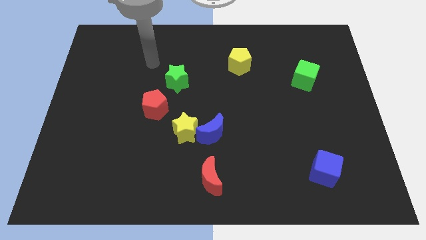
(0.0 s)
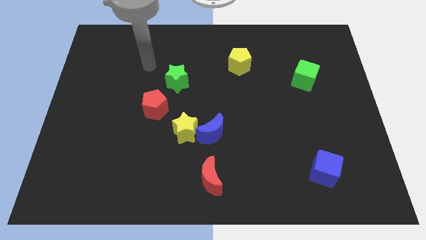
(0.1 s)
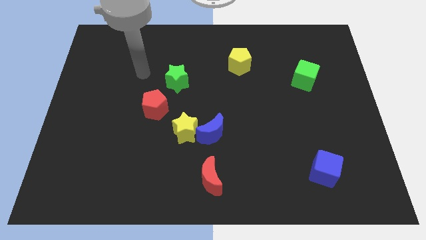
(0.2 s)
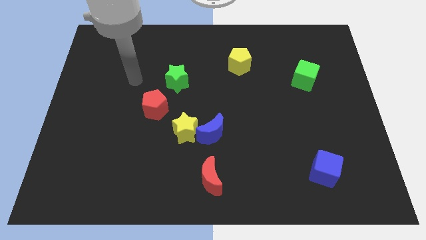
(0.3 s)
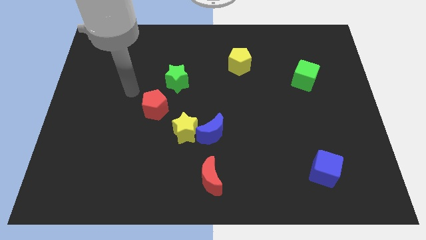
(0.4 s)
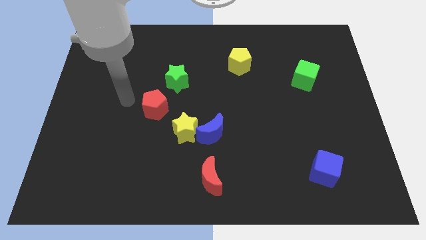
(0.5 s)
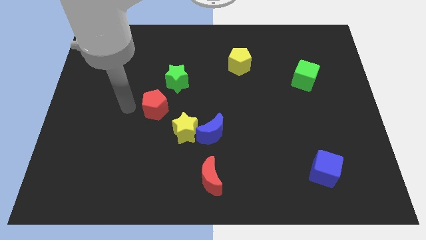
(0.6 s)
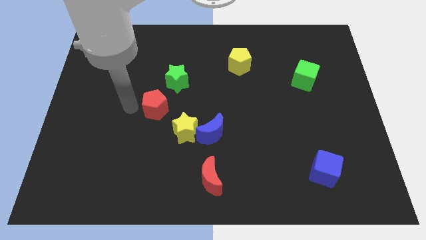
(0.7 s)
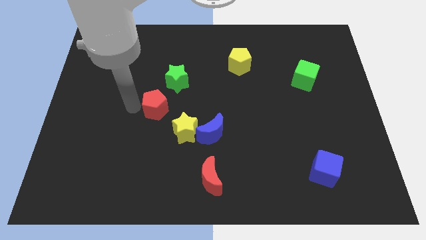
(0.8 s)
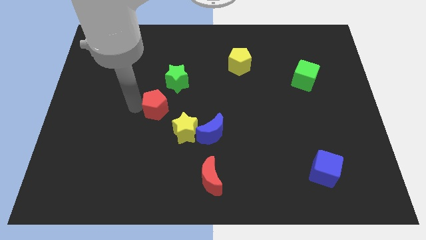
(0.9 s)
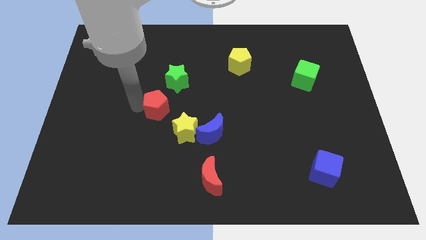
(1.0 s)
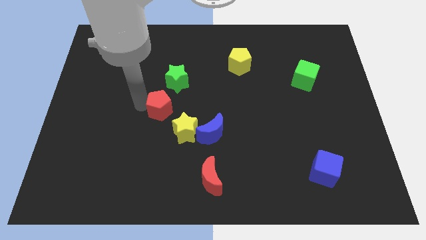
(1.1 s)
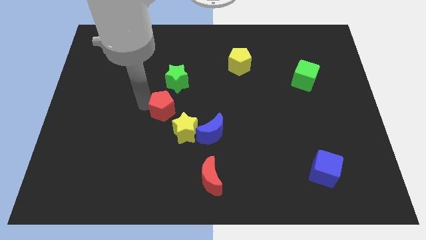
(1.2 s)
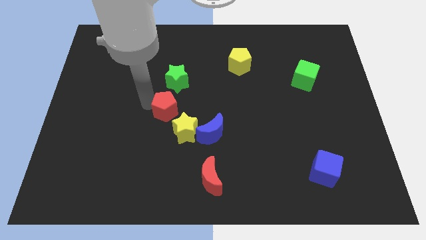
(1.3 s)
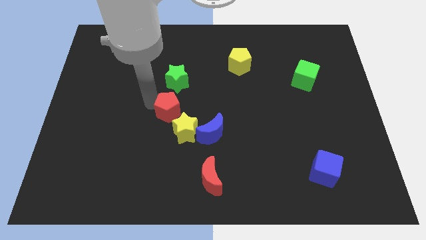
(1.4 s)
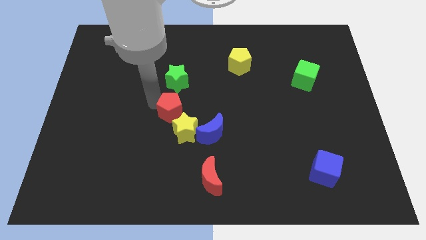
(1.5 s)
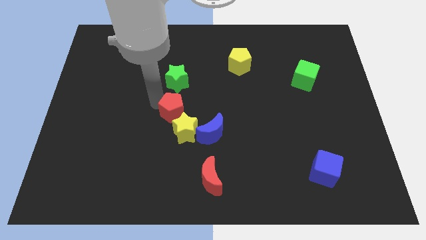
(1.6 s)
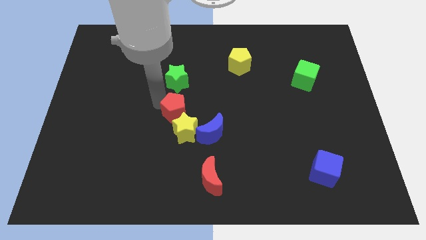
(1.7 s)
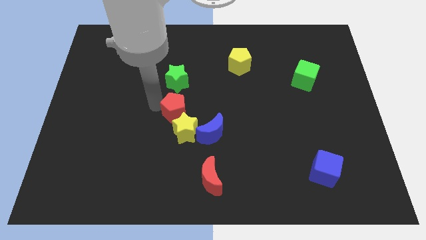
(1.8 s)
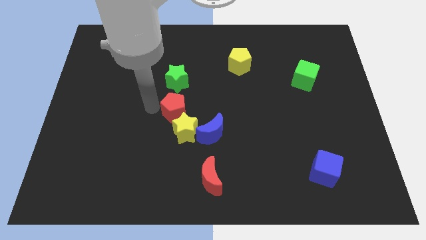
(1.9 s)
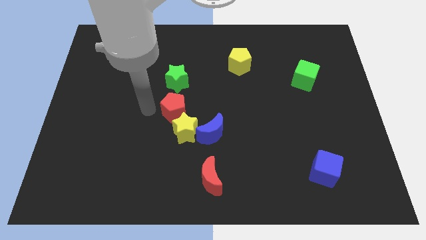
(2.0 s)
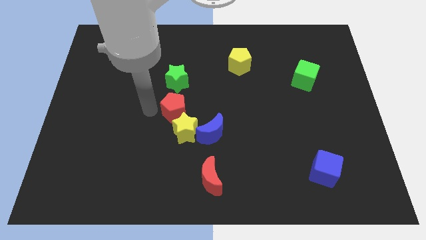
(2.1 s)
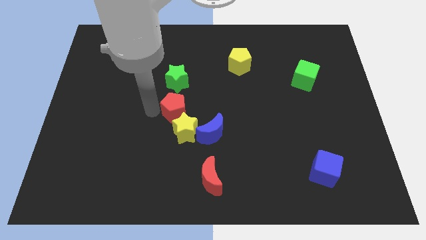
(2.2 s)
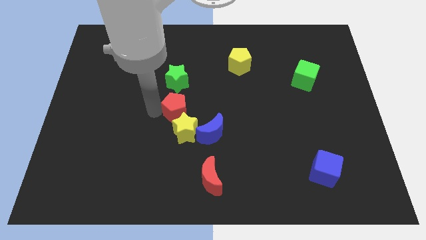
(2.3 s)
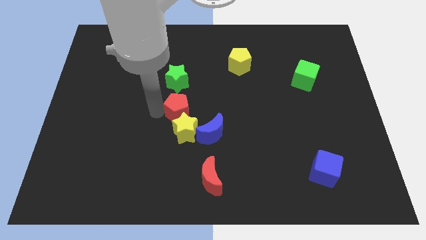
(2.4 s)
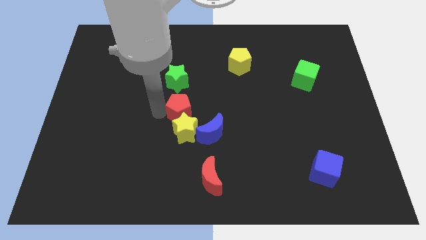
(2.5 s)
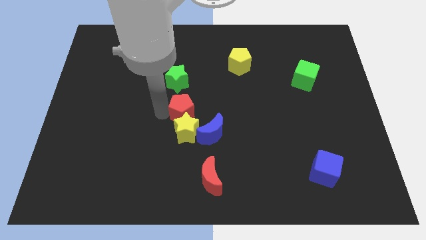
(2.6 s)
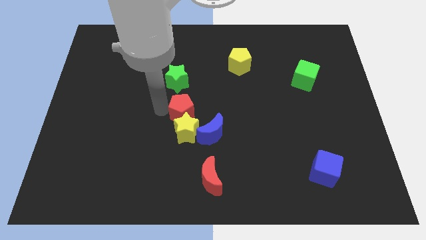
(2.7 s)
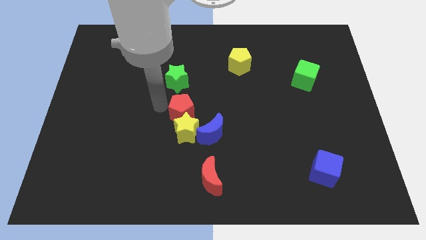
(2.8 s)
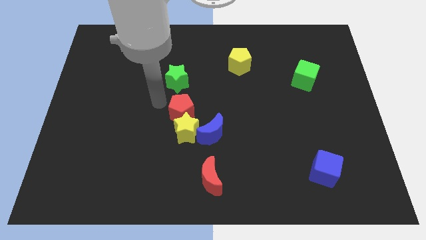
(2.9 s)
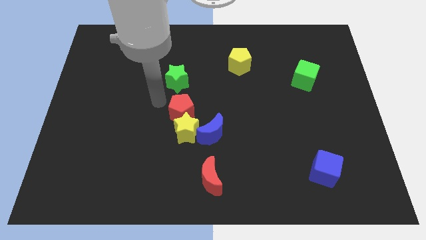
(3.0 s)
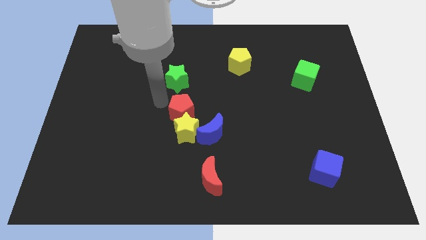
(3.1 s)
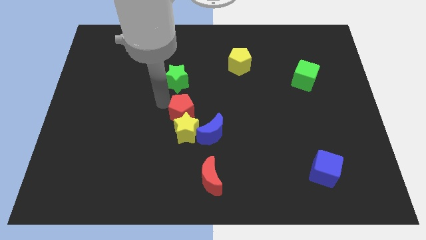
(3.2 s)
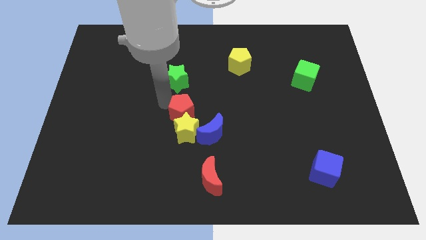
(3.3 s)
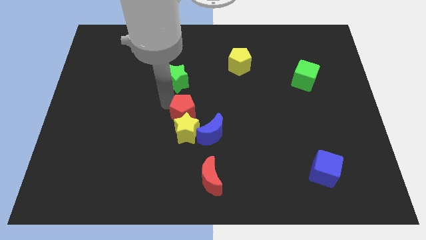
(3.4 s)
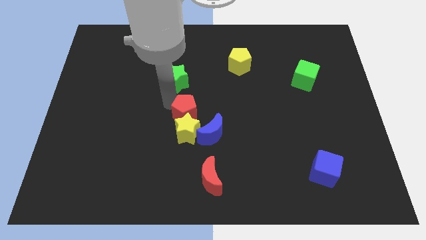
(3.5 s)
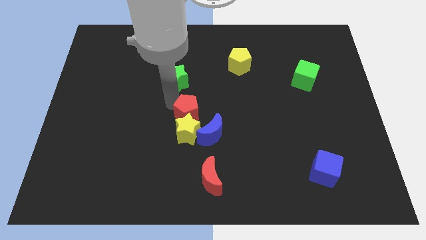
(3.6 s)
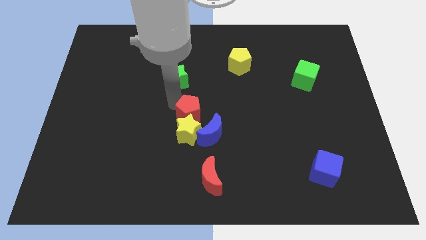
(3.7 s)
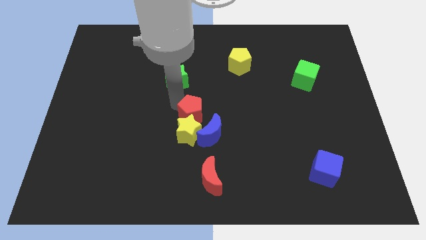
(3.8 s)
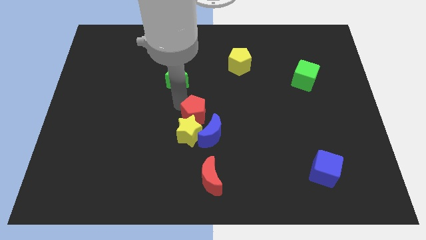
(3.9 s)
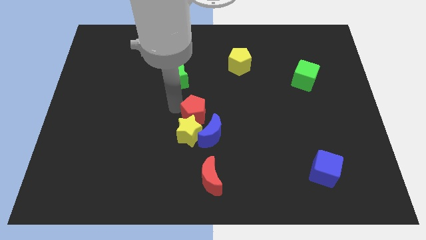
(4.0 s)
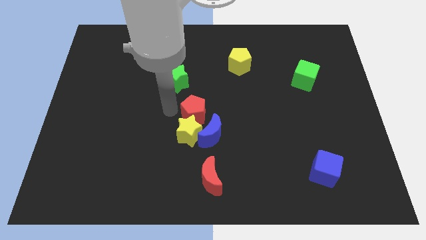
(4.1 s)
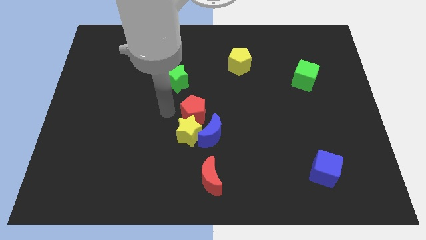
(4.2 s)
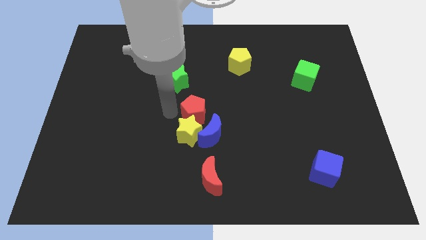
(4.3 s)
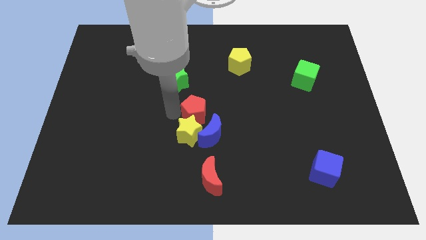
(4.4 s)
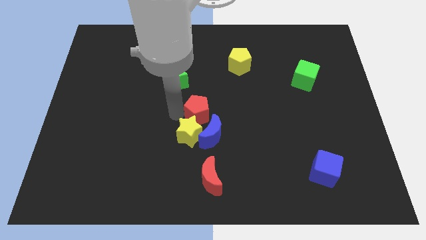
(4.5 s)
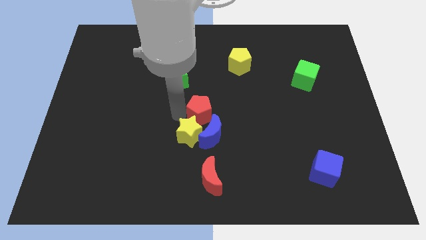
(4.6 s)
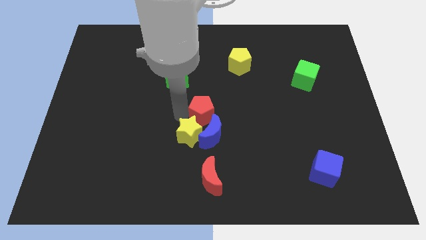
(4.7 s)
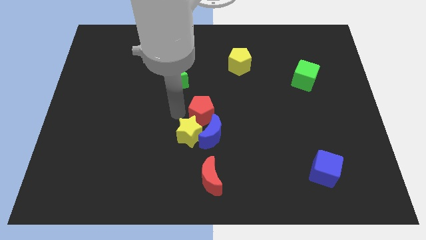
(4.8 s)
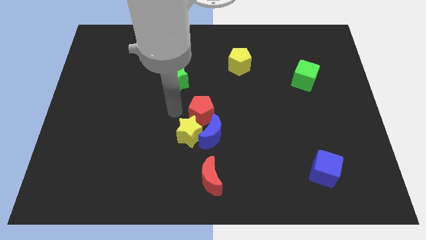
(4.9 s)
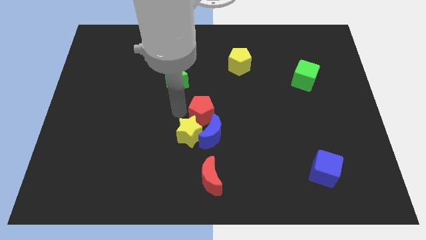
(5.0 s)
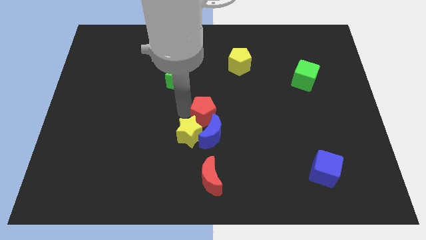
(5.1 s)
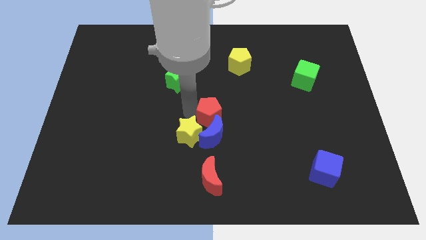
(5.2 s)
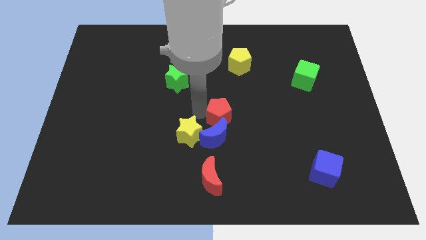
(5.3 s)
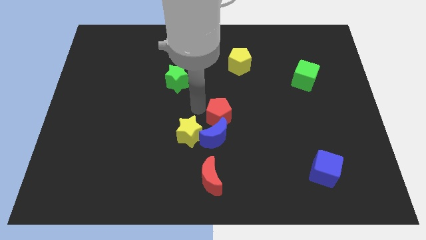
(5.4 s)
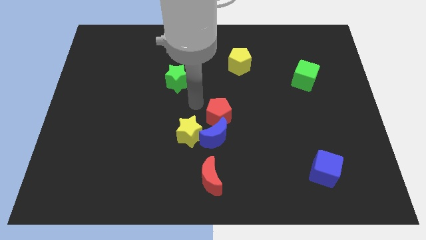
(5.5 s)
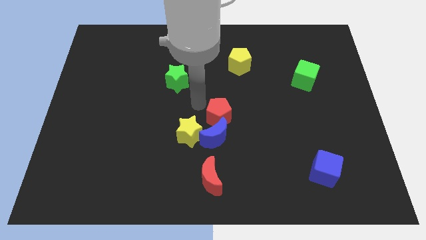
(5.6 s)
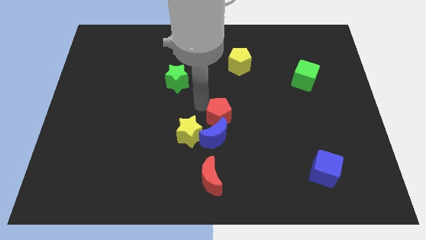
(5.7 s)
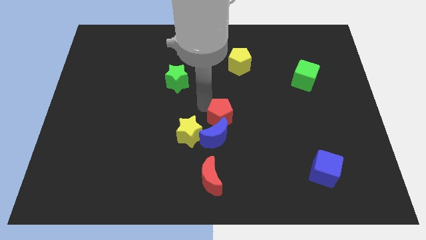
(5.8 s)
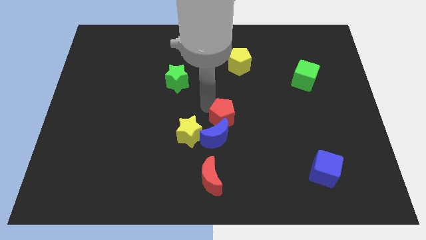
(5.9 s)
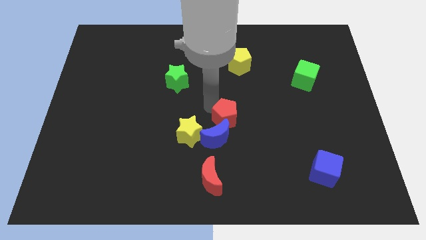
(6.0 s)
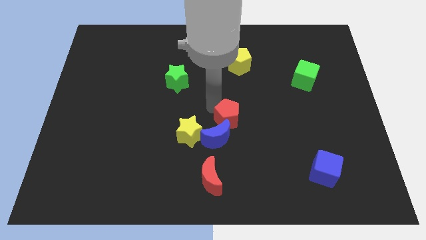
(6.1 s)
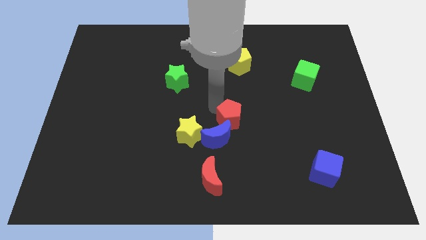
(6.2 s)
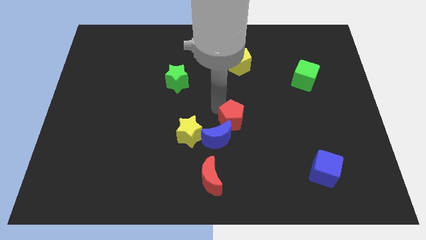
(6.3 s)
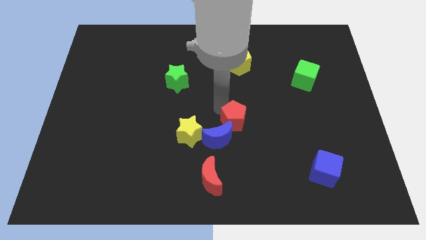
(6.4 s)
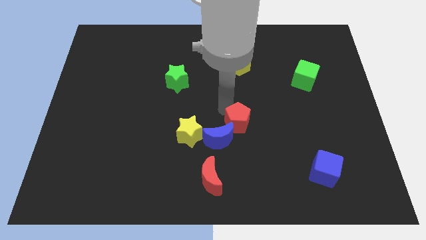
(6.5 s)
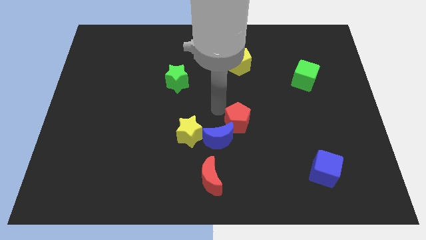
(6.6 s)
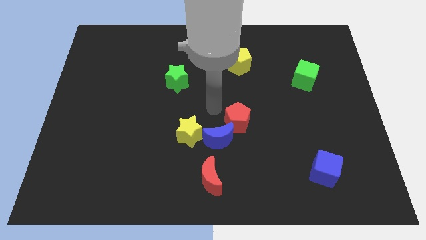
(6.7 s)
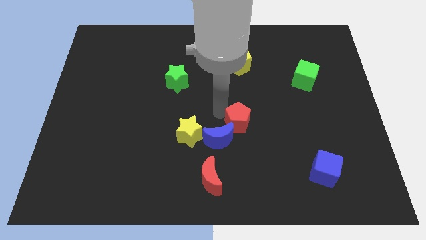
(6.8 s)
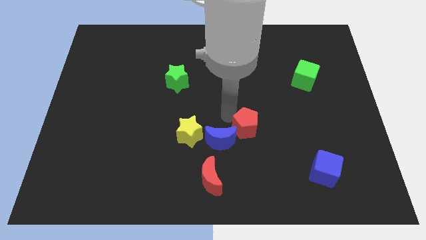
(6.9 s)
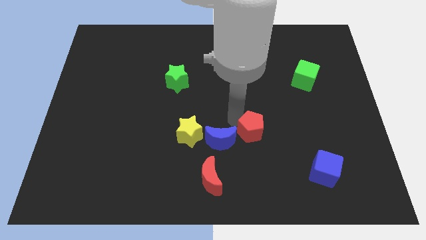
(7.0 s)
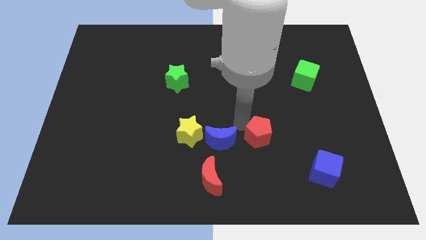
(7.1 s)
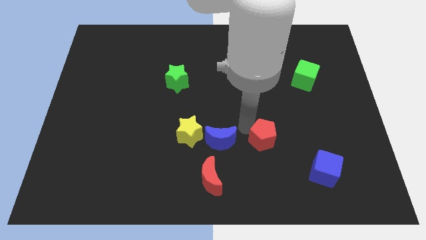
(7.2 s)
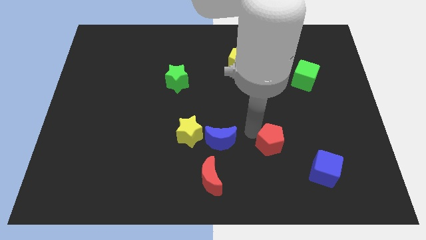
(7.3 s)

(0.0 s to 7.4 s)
slide the red pentagon to the top left side of the blue cube

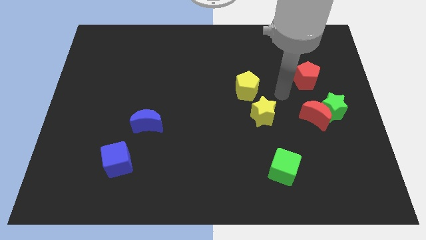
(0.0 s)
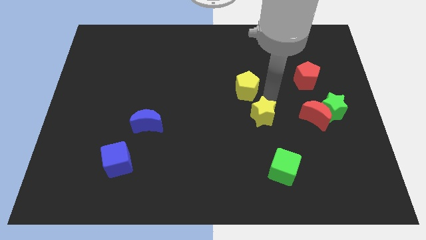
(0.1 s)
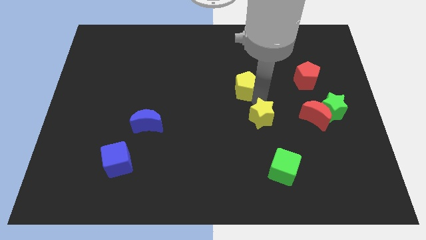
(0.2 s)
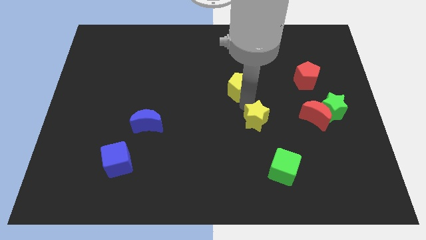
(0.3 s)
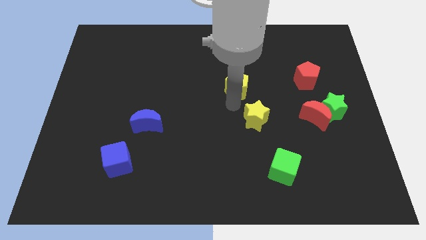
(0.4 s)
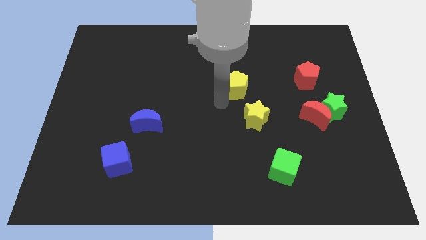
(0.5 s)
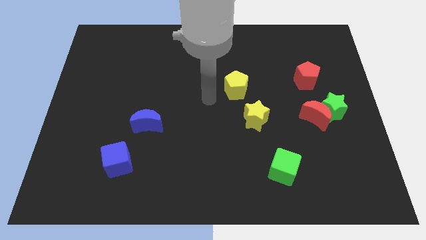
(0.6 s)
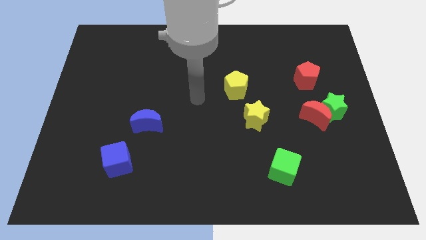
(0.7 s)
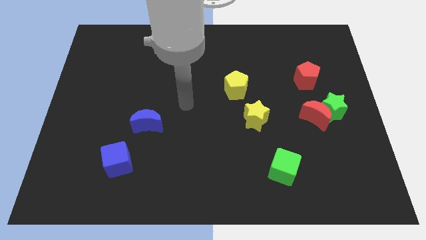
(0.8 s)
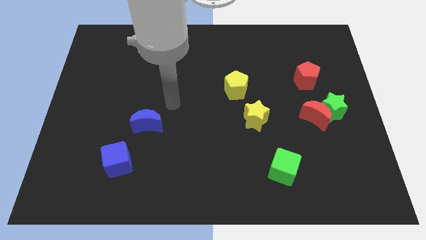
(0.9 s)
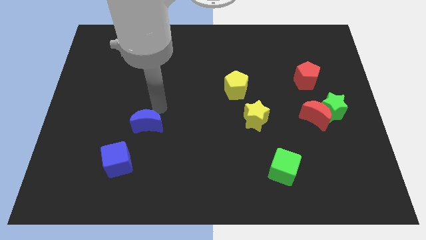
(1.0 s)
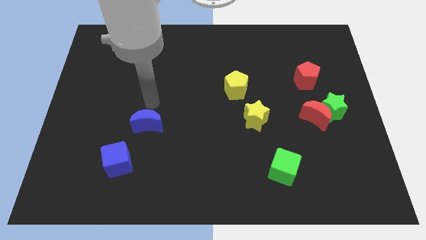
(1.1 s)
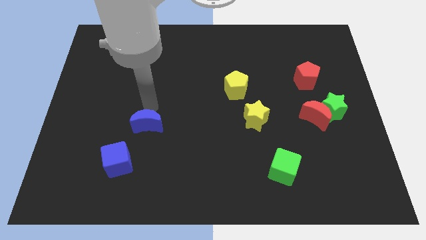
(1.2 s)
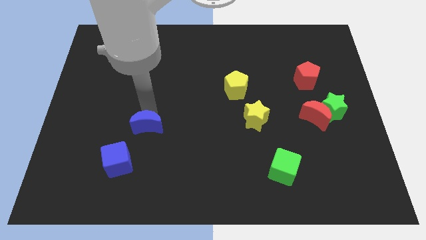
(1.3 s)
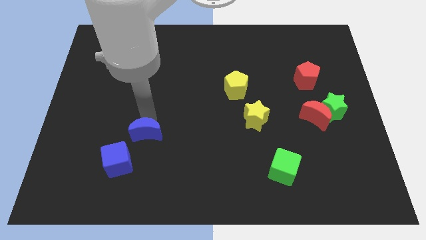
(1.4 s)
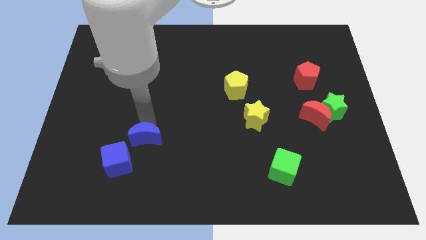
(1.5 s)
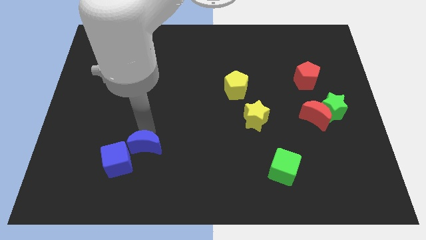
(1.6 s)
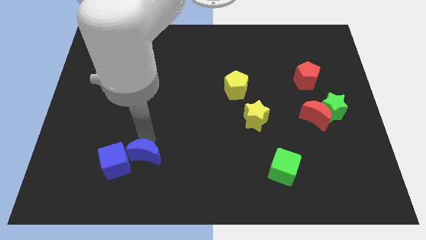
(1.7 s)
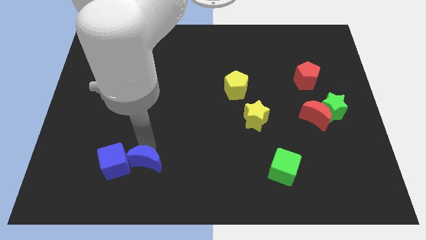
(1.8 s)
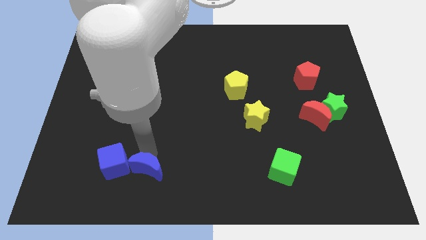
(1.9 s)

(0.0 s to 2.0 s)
put the blue moon to the bottom right of the blue cube
